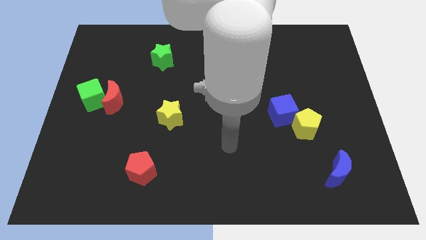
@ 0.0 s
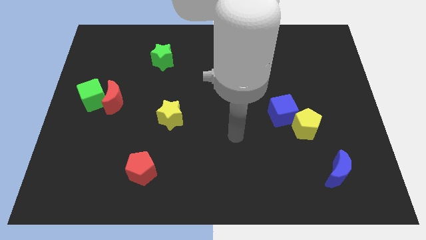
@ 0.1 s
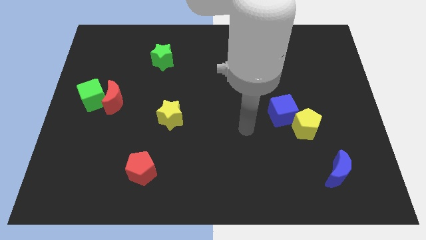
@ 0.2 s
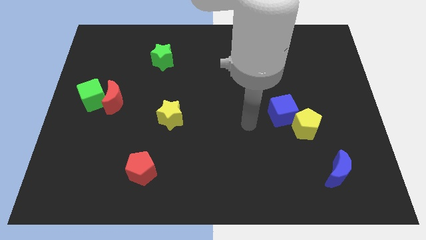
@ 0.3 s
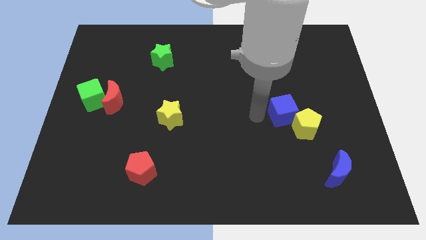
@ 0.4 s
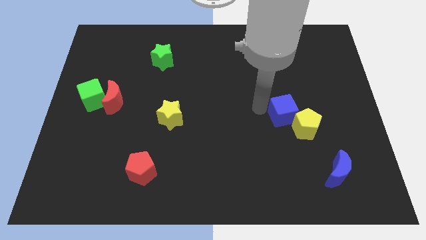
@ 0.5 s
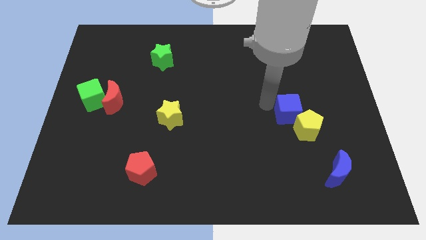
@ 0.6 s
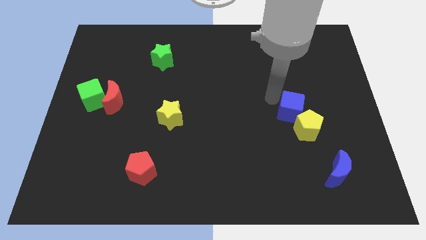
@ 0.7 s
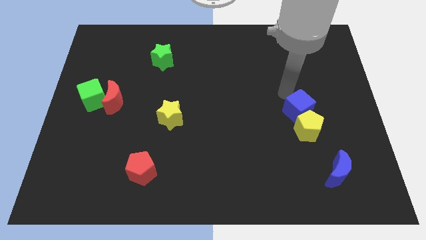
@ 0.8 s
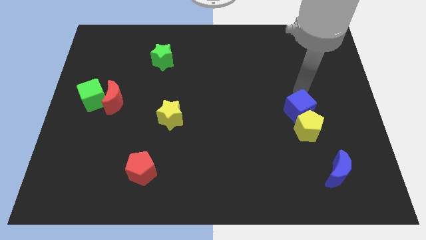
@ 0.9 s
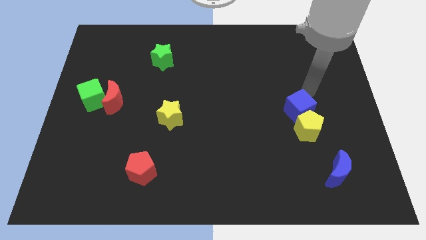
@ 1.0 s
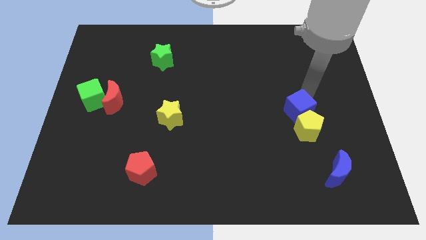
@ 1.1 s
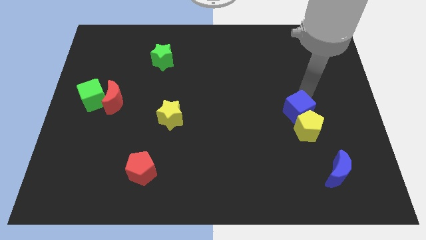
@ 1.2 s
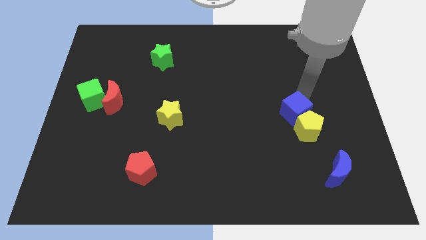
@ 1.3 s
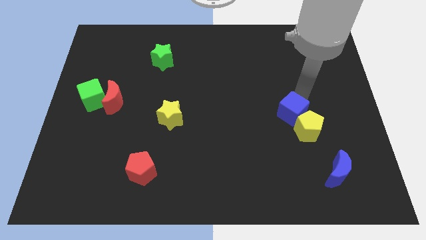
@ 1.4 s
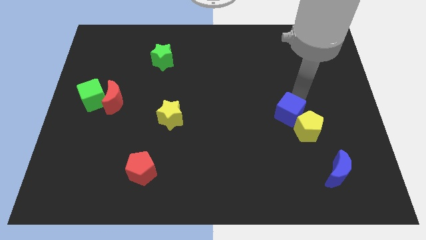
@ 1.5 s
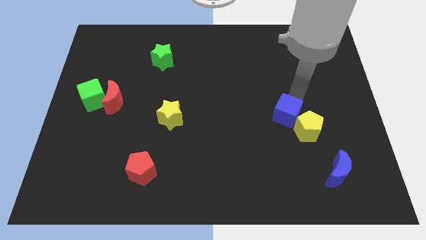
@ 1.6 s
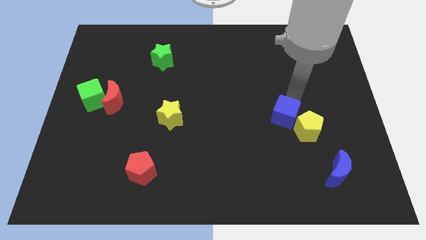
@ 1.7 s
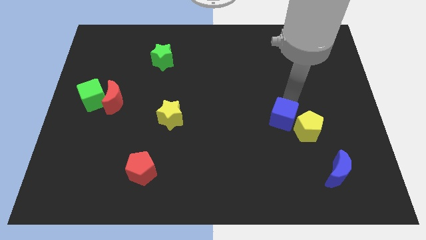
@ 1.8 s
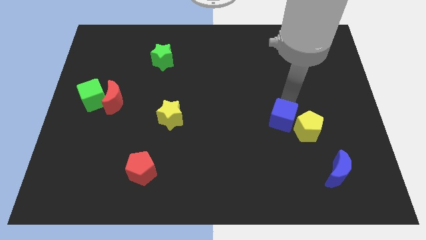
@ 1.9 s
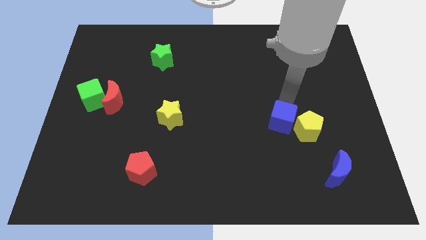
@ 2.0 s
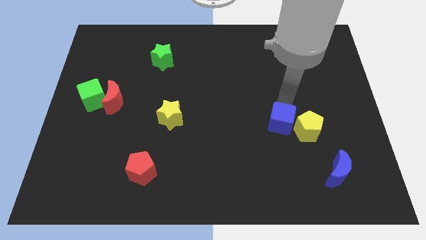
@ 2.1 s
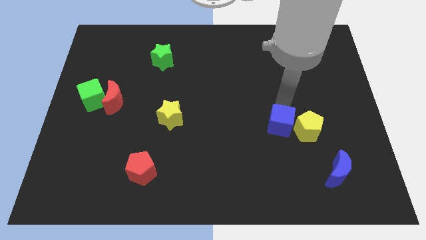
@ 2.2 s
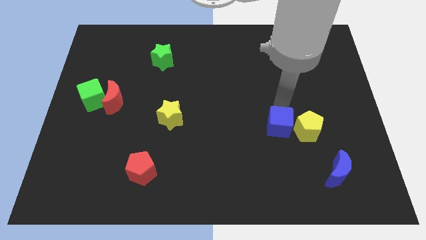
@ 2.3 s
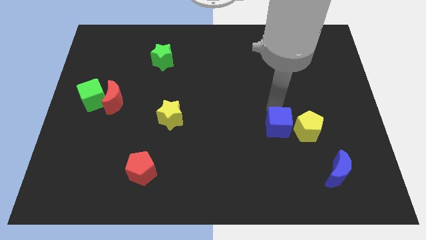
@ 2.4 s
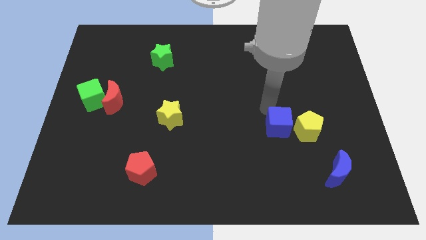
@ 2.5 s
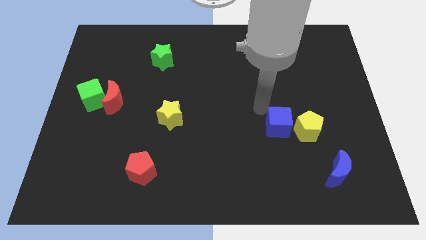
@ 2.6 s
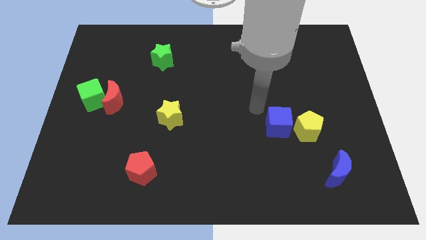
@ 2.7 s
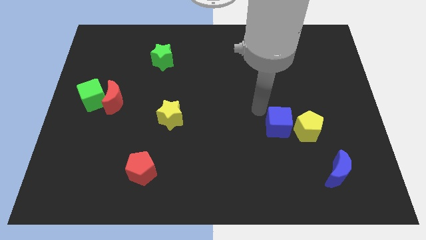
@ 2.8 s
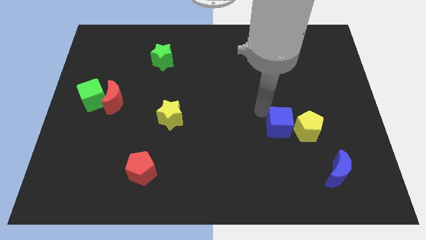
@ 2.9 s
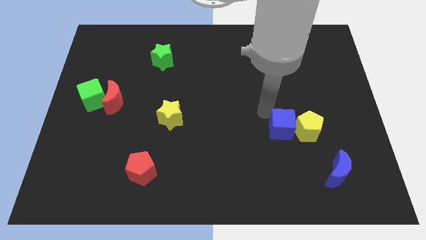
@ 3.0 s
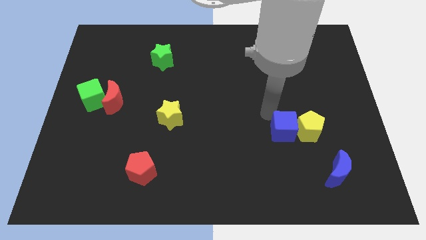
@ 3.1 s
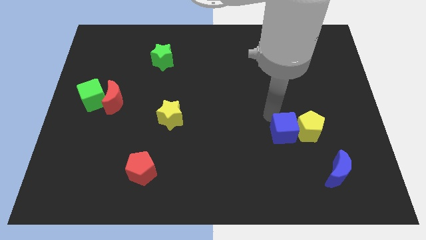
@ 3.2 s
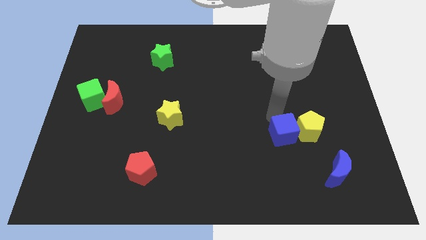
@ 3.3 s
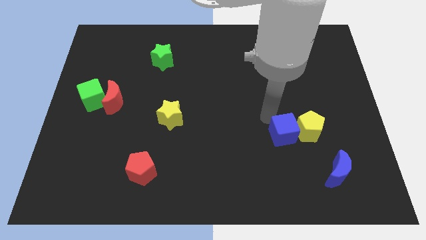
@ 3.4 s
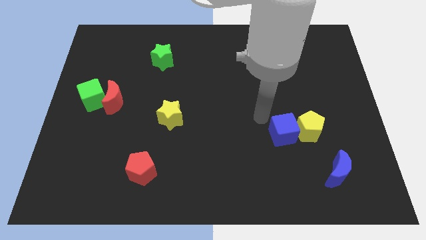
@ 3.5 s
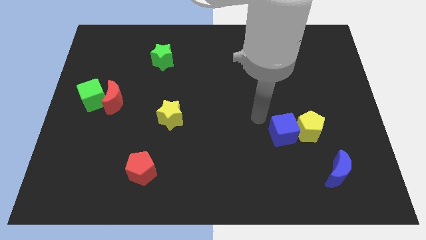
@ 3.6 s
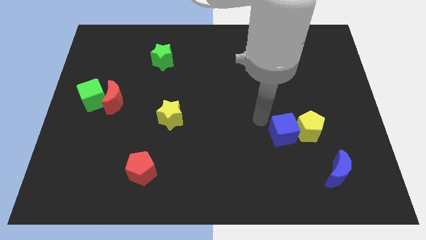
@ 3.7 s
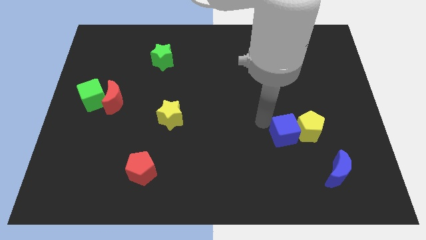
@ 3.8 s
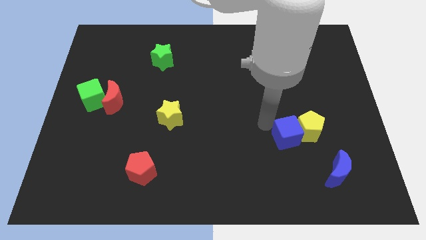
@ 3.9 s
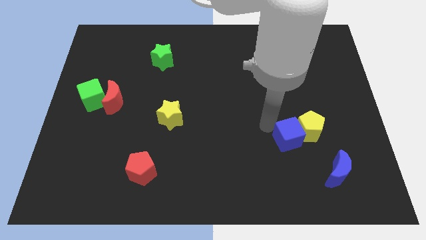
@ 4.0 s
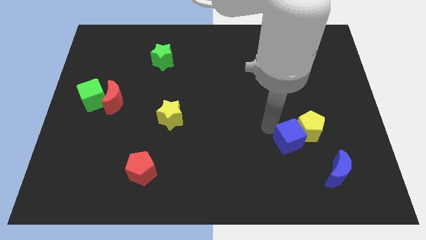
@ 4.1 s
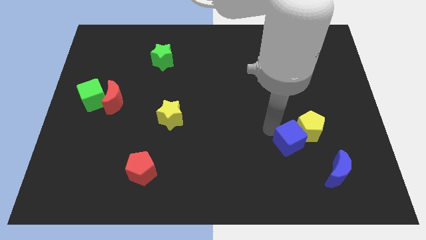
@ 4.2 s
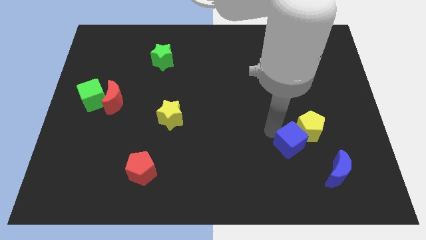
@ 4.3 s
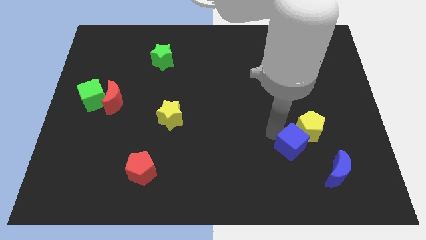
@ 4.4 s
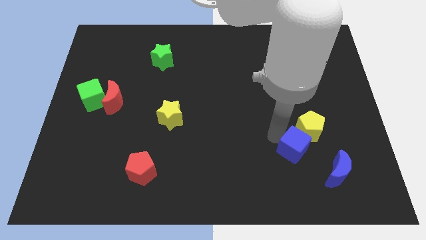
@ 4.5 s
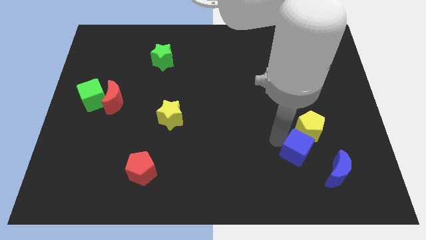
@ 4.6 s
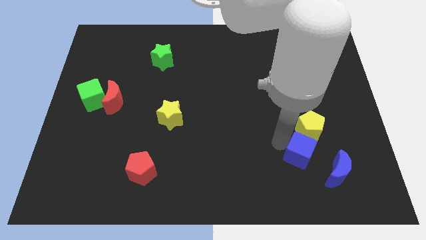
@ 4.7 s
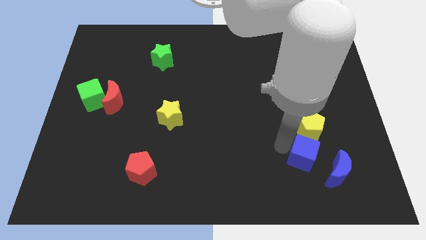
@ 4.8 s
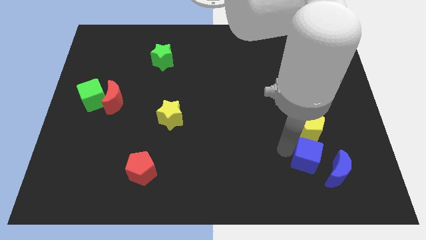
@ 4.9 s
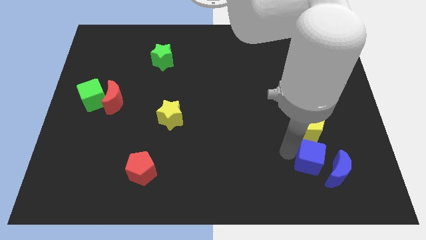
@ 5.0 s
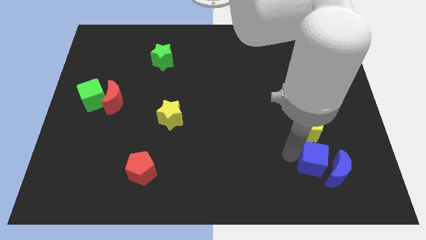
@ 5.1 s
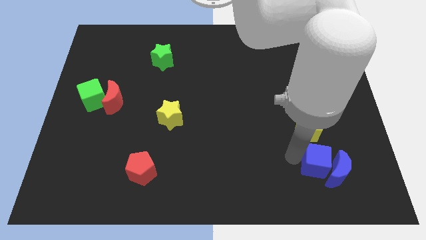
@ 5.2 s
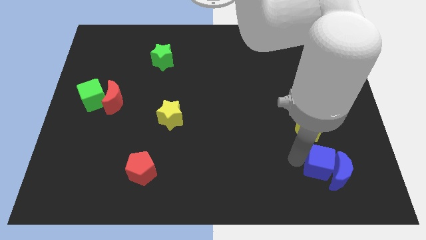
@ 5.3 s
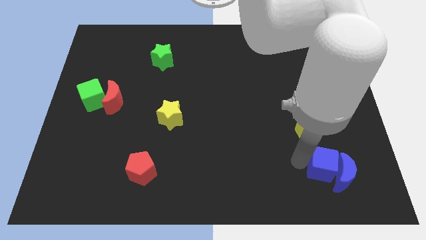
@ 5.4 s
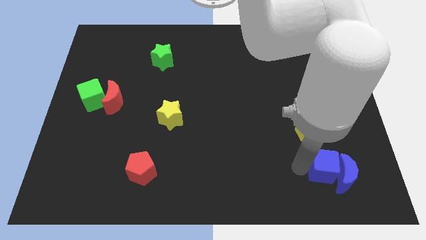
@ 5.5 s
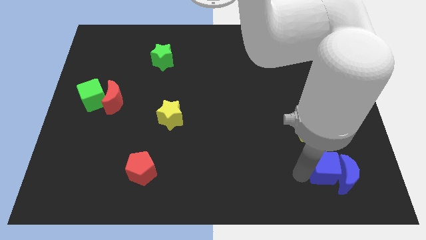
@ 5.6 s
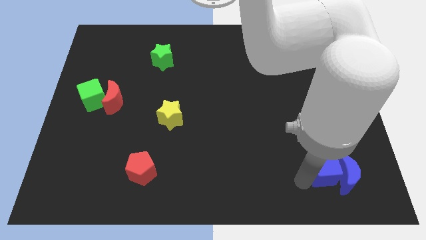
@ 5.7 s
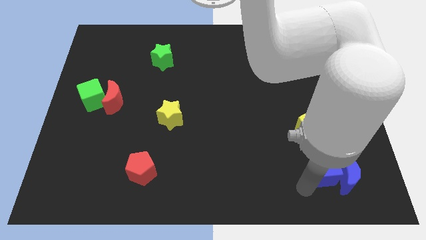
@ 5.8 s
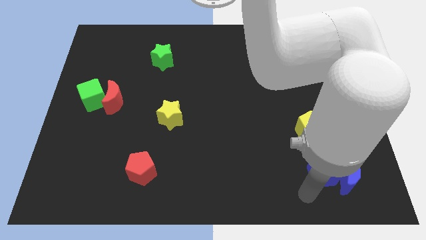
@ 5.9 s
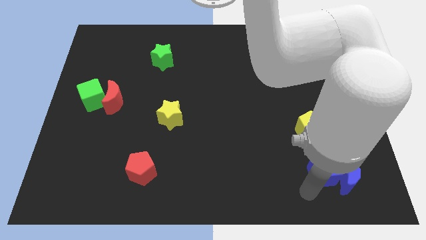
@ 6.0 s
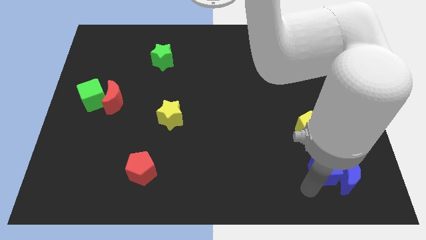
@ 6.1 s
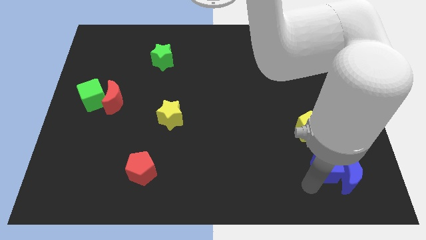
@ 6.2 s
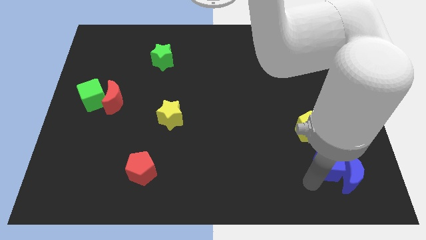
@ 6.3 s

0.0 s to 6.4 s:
move the blue cube to the bottom right of the yellow pentagon

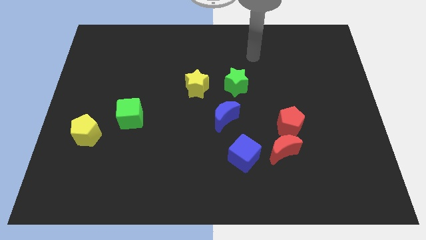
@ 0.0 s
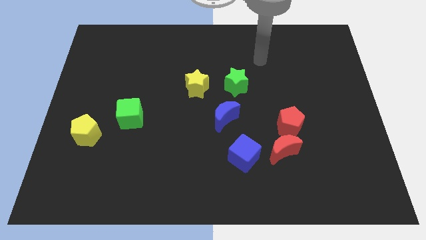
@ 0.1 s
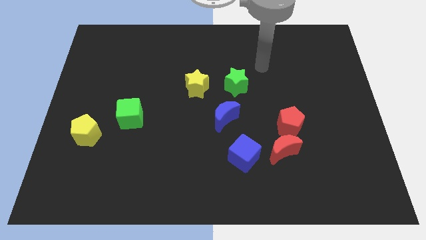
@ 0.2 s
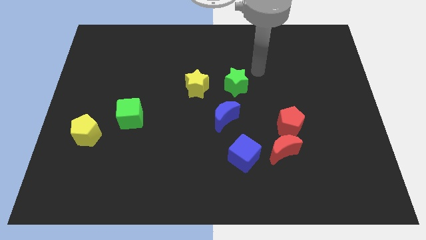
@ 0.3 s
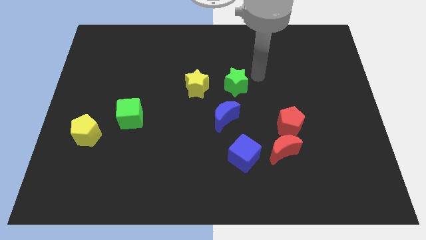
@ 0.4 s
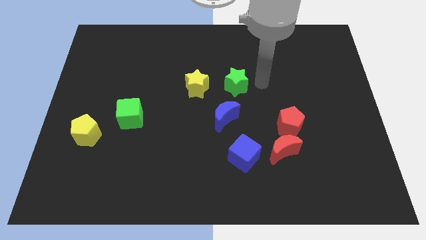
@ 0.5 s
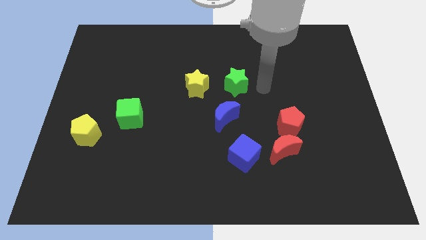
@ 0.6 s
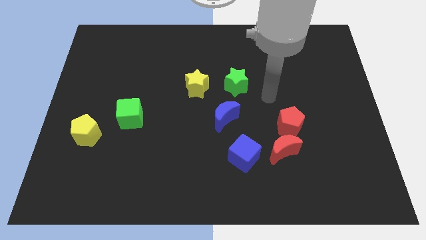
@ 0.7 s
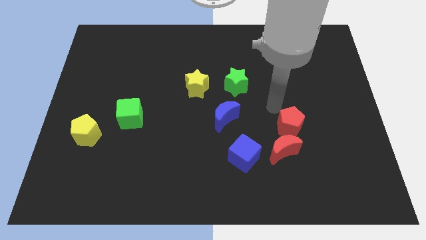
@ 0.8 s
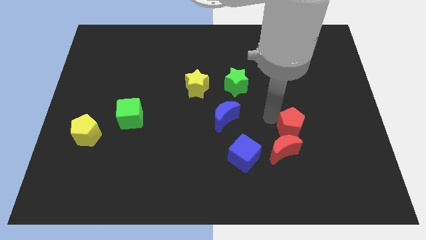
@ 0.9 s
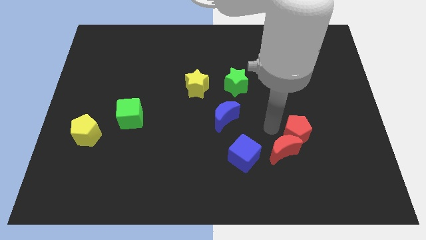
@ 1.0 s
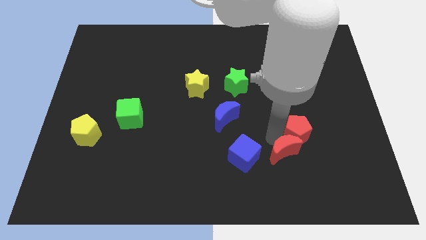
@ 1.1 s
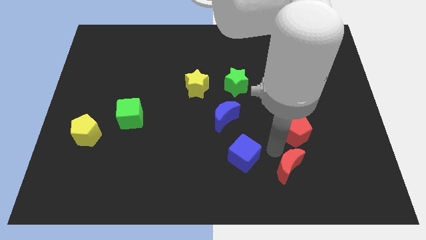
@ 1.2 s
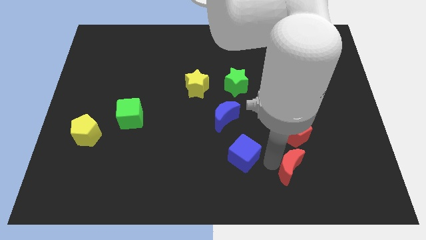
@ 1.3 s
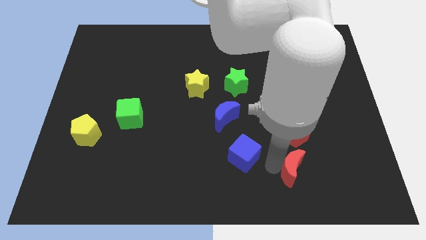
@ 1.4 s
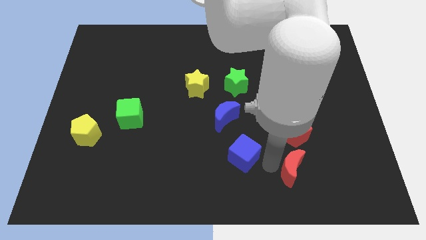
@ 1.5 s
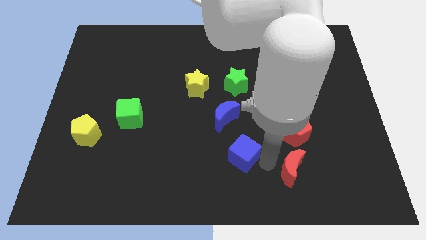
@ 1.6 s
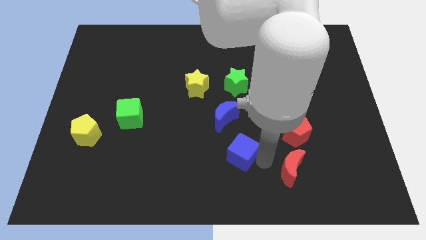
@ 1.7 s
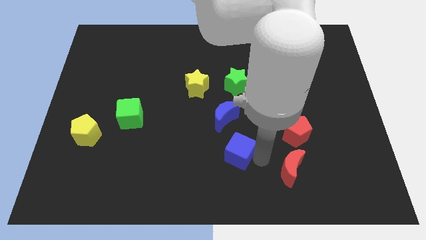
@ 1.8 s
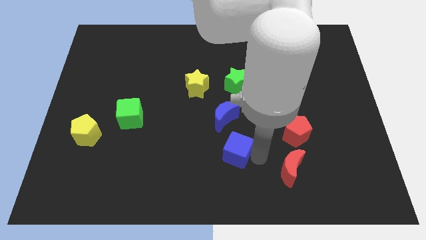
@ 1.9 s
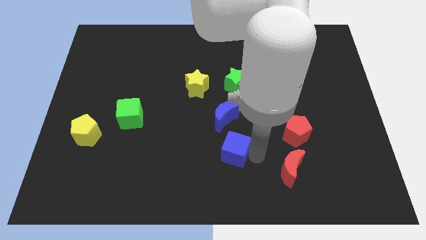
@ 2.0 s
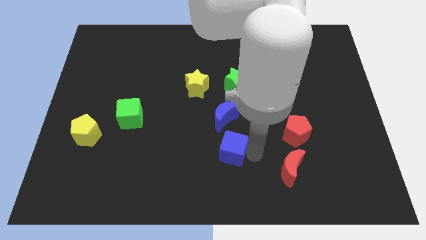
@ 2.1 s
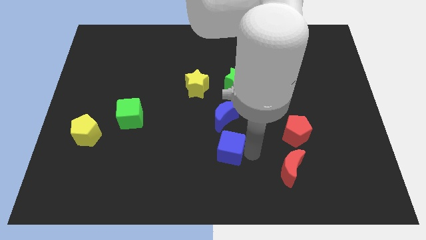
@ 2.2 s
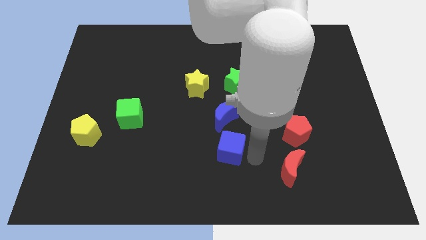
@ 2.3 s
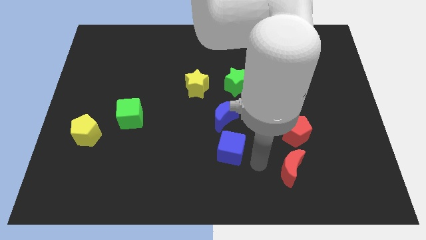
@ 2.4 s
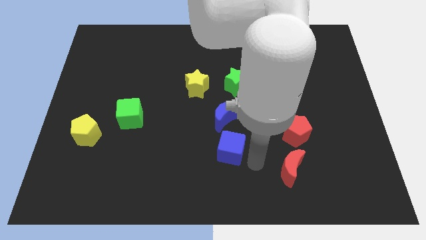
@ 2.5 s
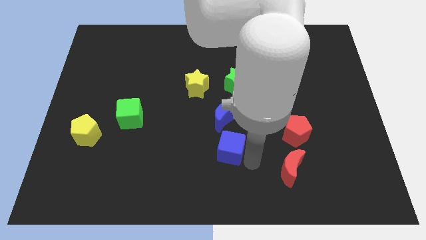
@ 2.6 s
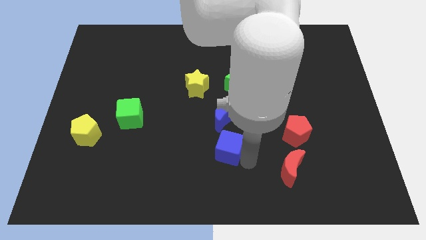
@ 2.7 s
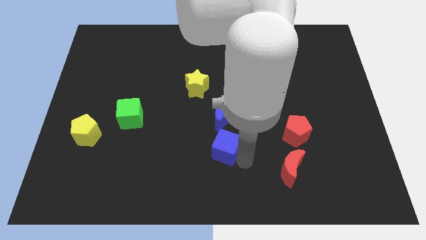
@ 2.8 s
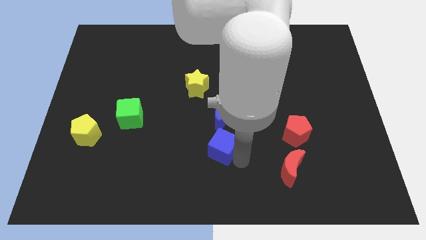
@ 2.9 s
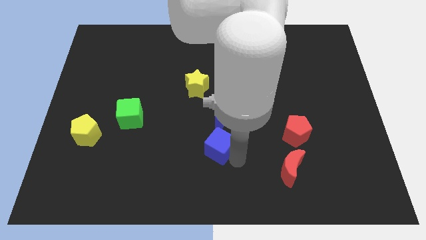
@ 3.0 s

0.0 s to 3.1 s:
put the blue cube to the bottom left side of the blue moon
